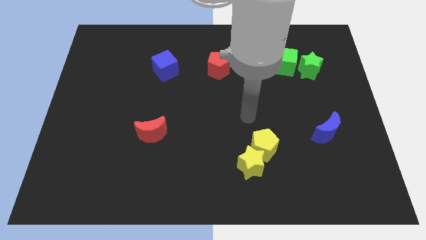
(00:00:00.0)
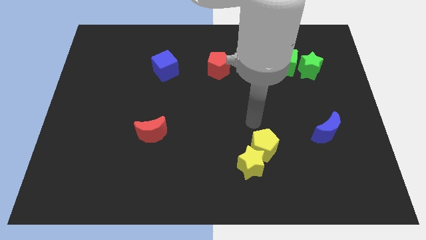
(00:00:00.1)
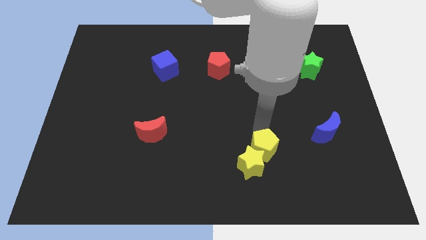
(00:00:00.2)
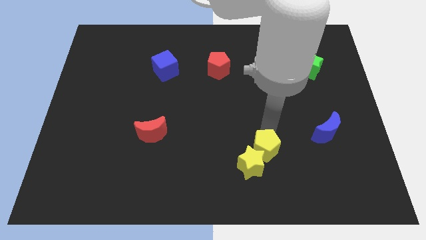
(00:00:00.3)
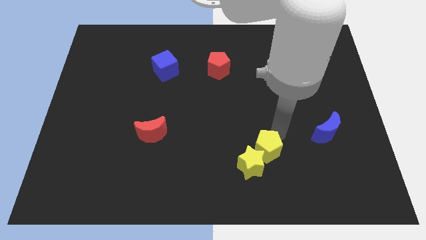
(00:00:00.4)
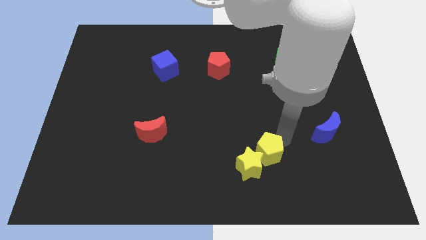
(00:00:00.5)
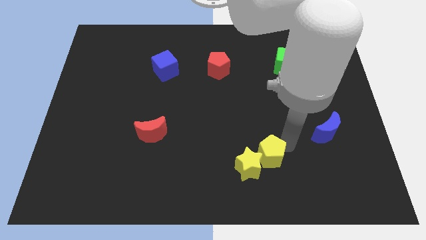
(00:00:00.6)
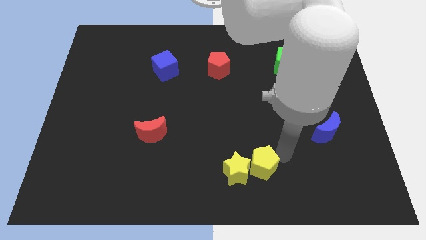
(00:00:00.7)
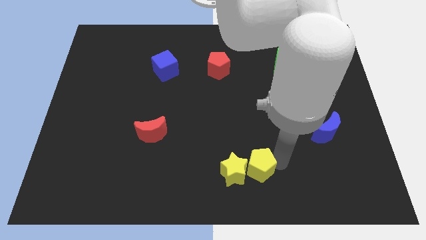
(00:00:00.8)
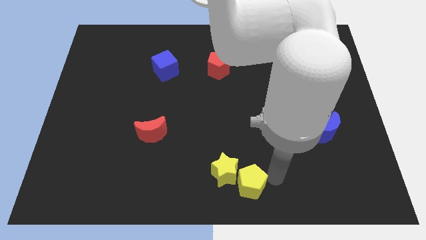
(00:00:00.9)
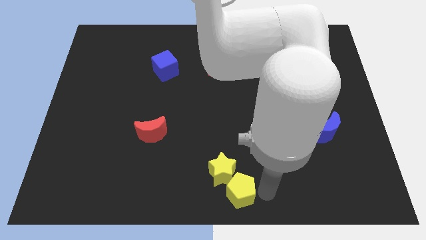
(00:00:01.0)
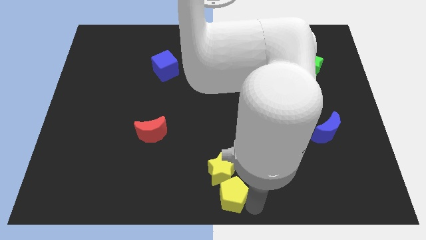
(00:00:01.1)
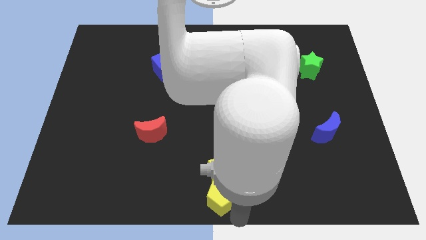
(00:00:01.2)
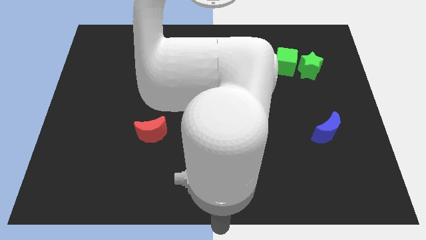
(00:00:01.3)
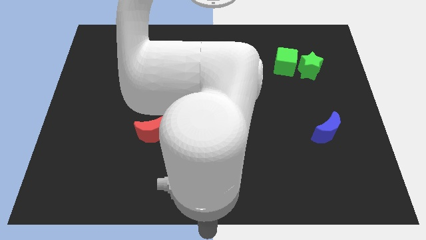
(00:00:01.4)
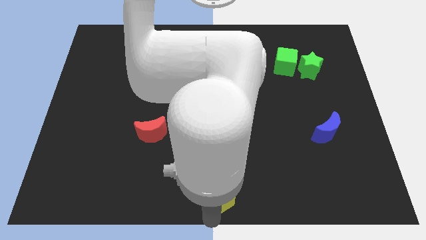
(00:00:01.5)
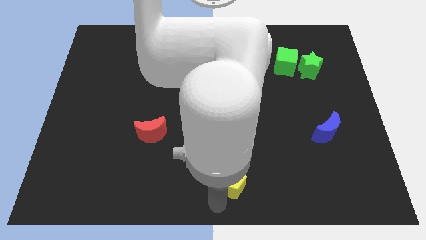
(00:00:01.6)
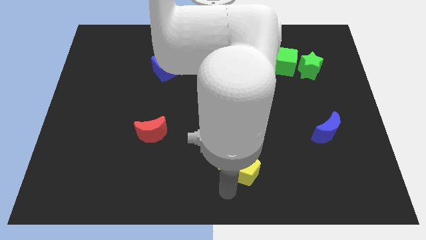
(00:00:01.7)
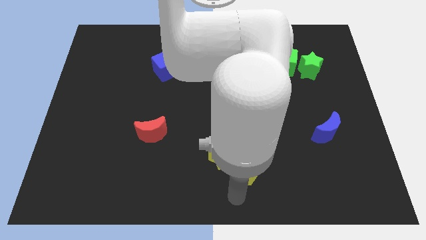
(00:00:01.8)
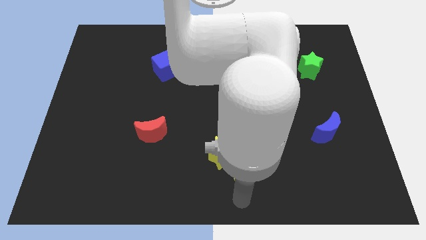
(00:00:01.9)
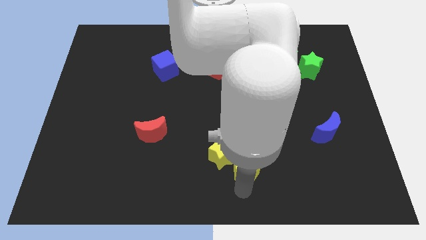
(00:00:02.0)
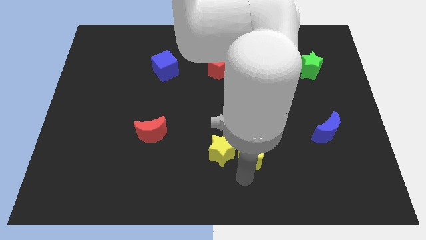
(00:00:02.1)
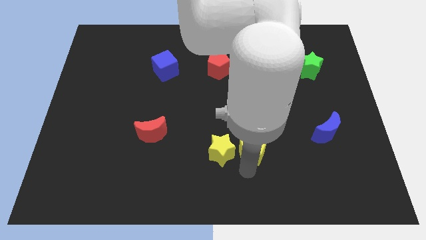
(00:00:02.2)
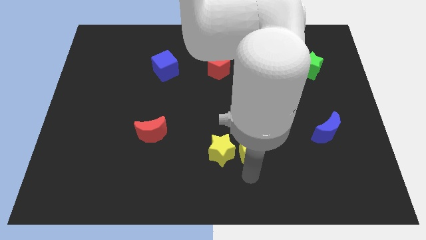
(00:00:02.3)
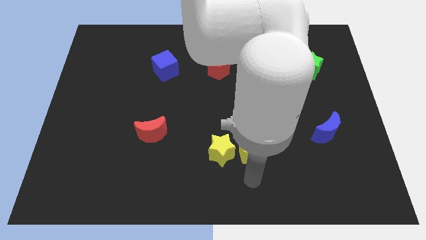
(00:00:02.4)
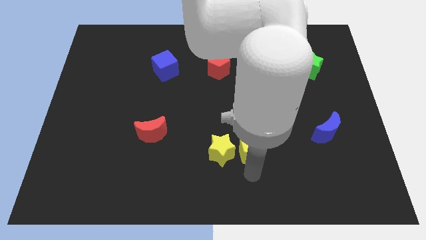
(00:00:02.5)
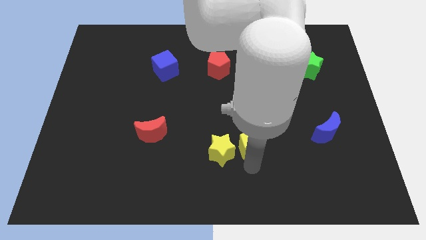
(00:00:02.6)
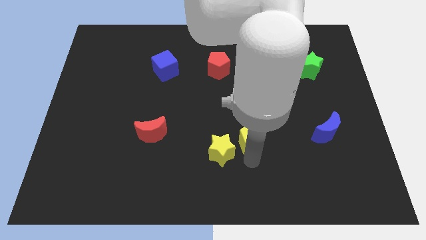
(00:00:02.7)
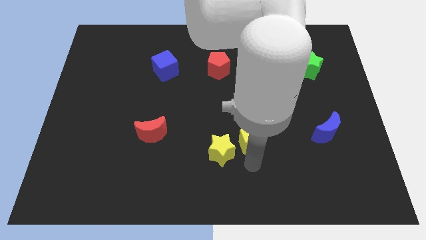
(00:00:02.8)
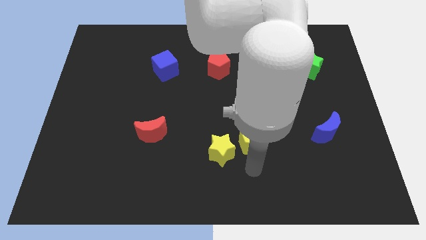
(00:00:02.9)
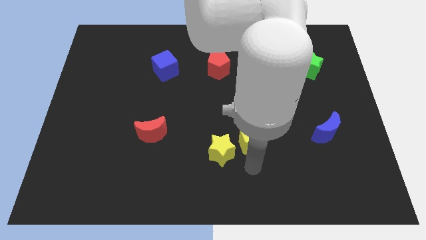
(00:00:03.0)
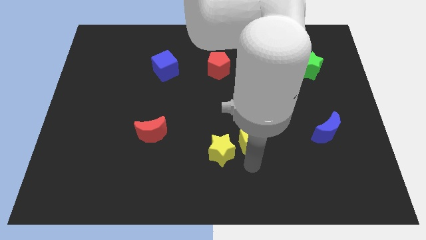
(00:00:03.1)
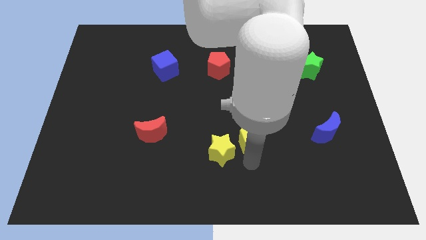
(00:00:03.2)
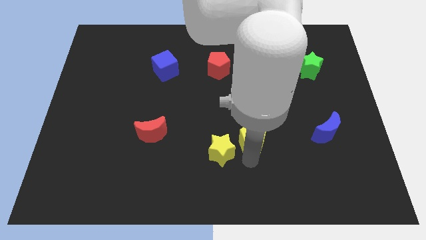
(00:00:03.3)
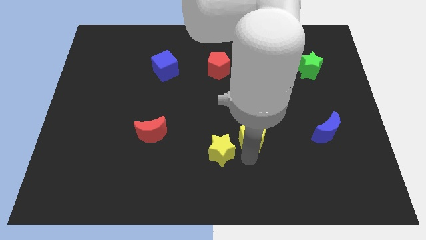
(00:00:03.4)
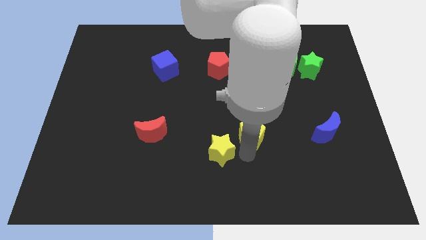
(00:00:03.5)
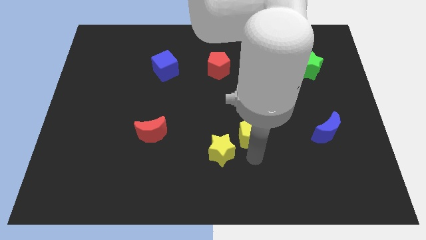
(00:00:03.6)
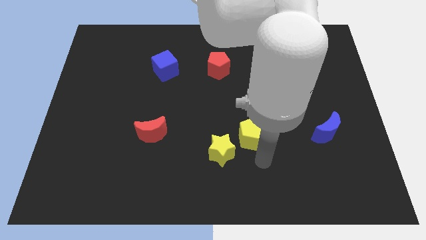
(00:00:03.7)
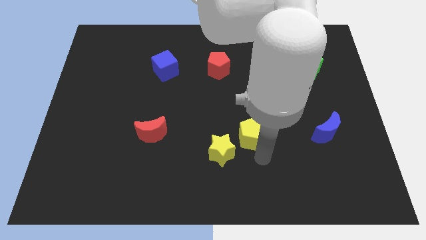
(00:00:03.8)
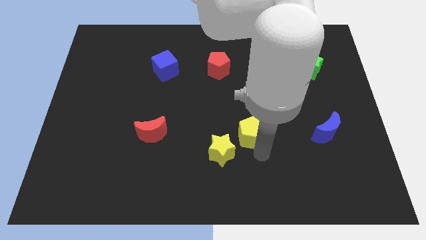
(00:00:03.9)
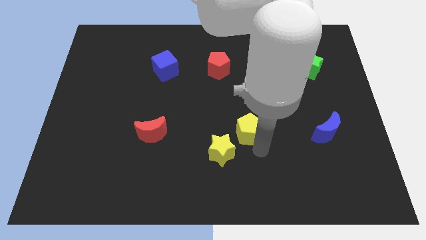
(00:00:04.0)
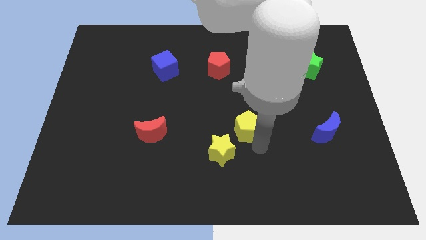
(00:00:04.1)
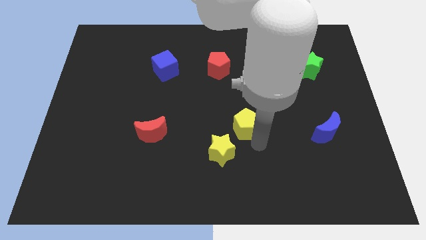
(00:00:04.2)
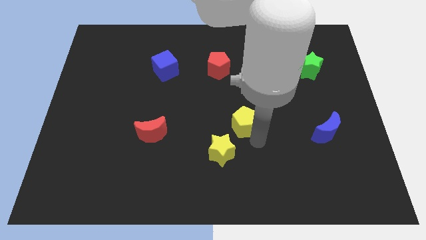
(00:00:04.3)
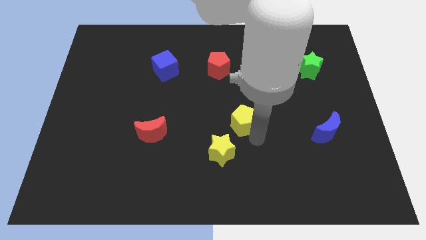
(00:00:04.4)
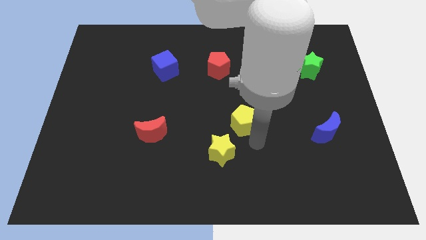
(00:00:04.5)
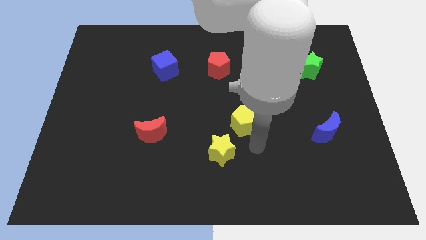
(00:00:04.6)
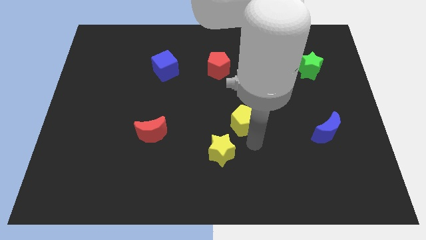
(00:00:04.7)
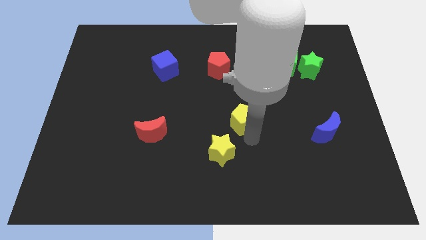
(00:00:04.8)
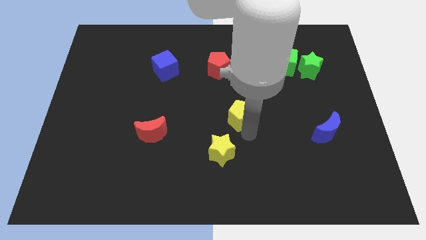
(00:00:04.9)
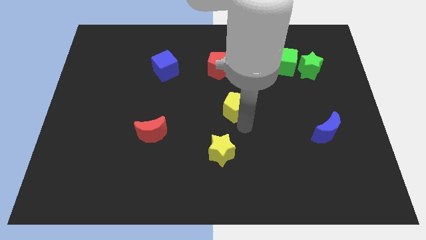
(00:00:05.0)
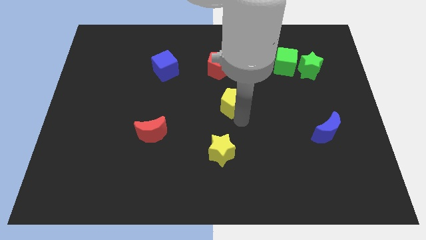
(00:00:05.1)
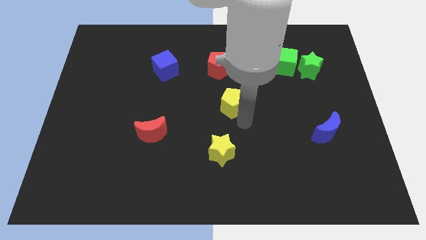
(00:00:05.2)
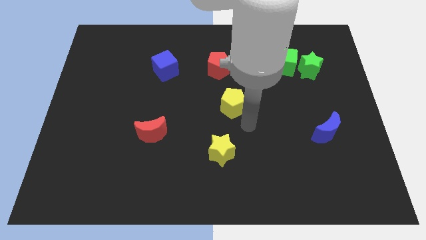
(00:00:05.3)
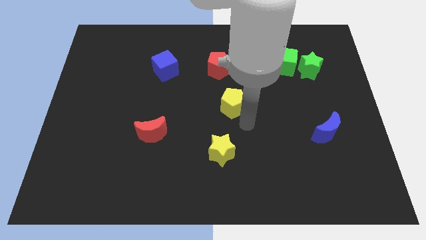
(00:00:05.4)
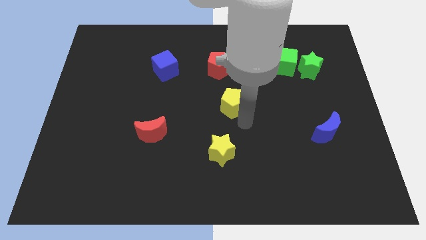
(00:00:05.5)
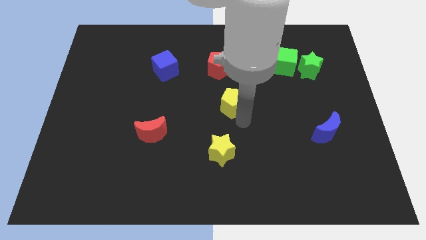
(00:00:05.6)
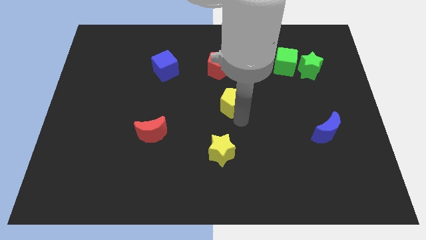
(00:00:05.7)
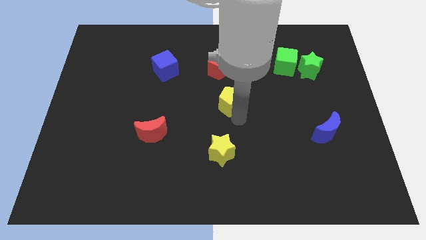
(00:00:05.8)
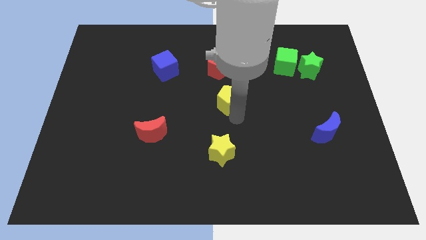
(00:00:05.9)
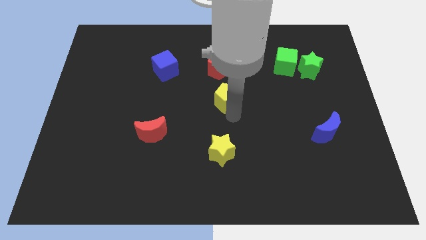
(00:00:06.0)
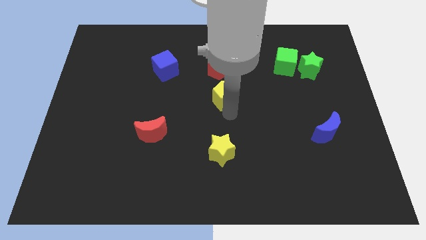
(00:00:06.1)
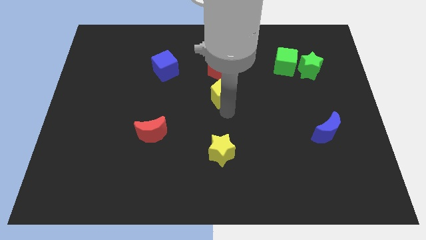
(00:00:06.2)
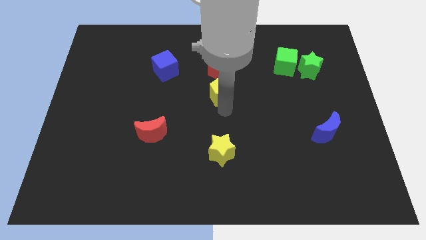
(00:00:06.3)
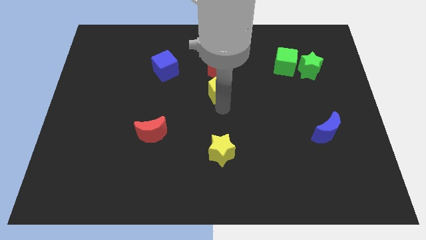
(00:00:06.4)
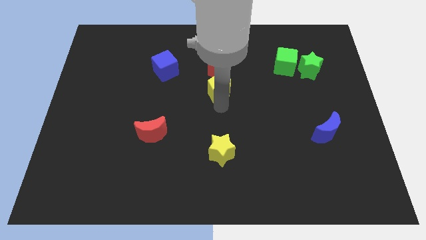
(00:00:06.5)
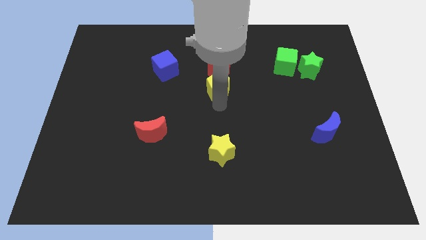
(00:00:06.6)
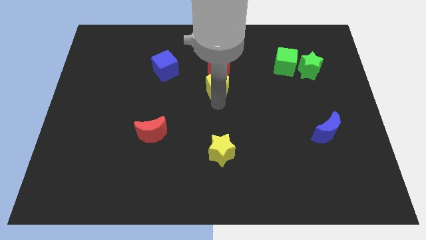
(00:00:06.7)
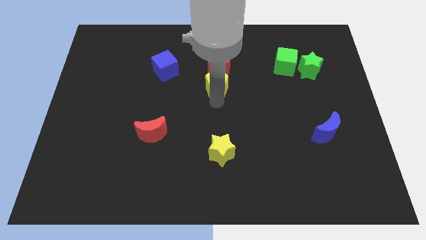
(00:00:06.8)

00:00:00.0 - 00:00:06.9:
put the yellow pentagon next to the red pentagon
